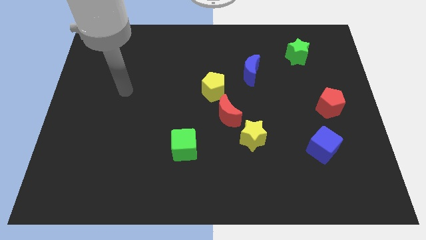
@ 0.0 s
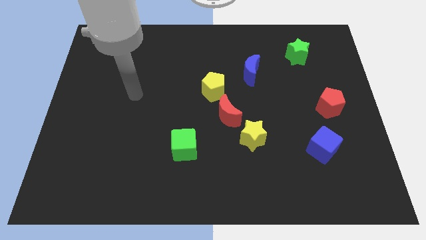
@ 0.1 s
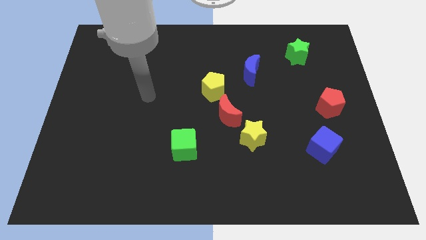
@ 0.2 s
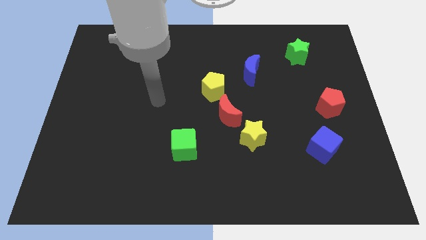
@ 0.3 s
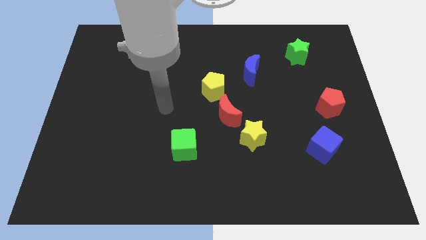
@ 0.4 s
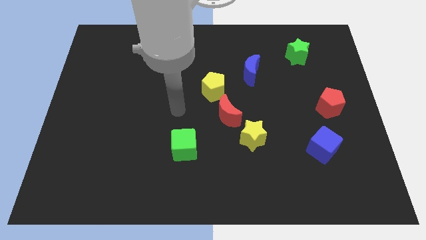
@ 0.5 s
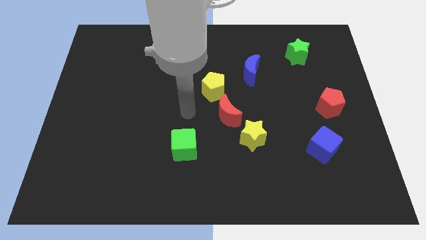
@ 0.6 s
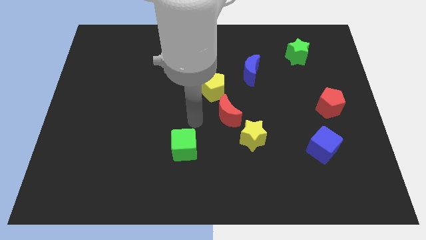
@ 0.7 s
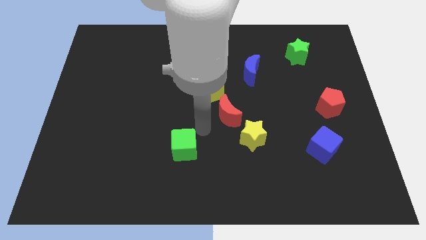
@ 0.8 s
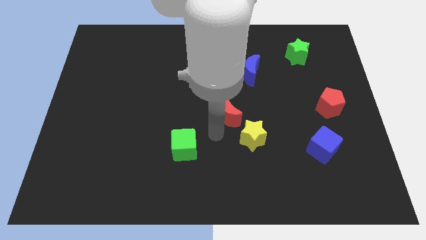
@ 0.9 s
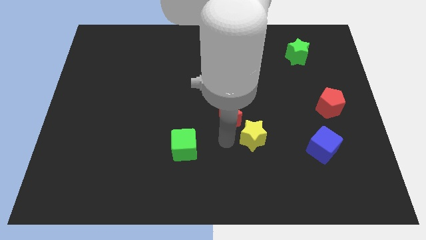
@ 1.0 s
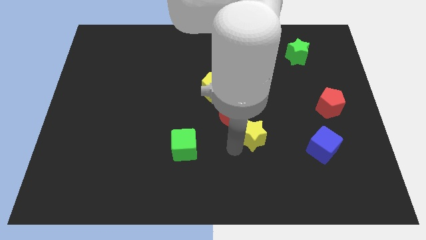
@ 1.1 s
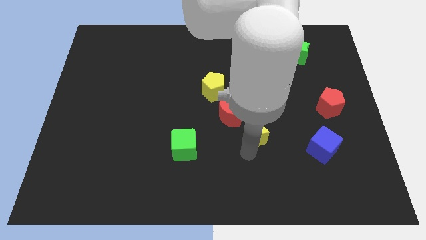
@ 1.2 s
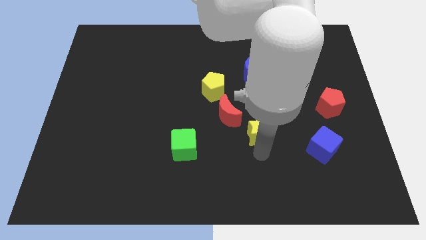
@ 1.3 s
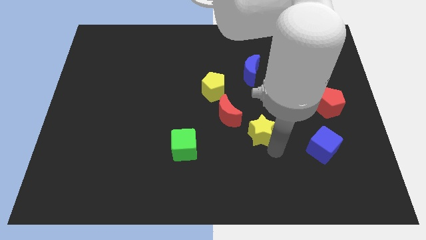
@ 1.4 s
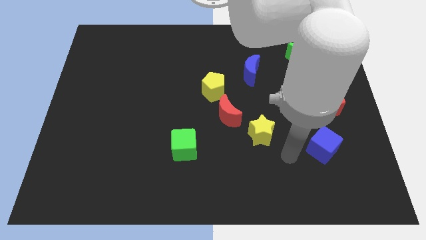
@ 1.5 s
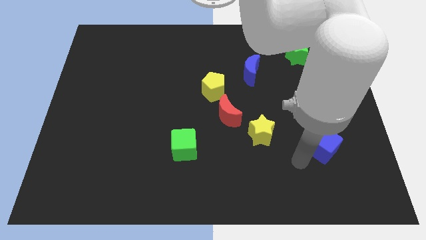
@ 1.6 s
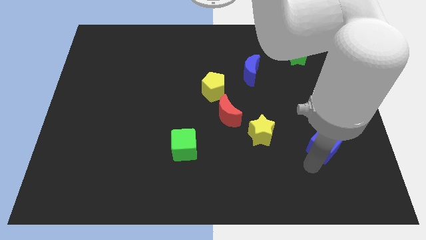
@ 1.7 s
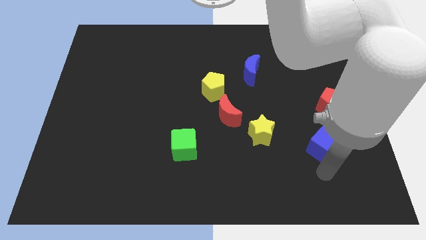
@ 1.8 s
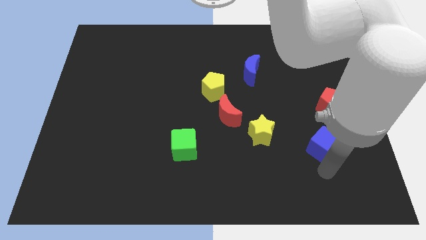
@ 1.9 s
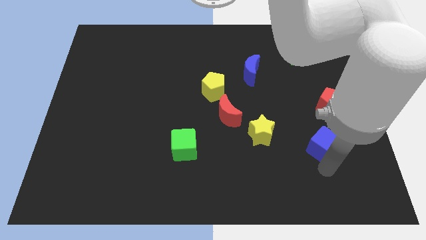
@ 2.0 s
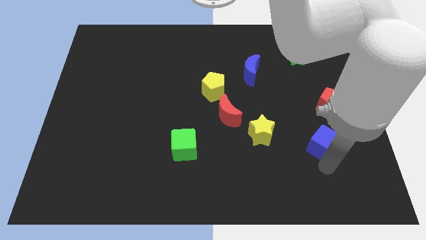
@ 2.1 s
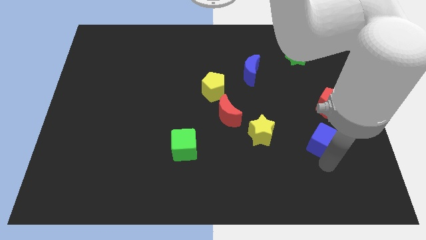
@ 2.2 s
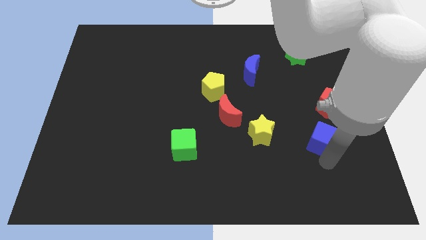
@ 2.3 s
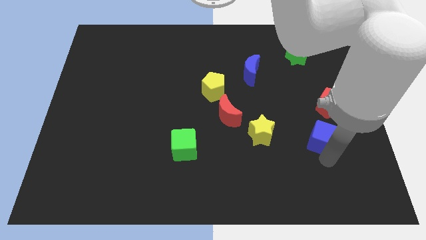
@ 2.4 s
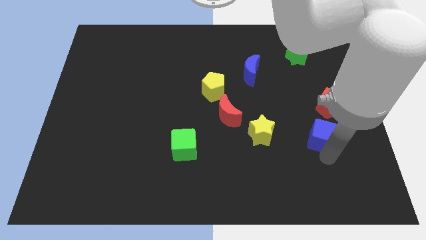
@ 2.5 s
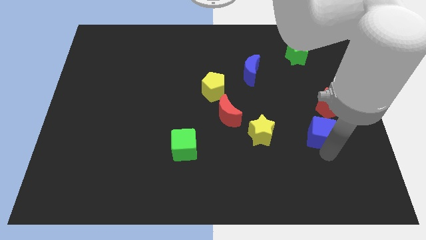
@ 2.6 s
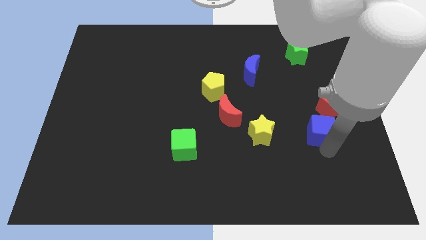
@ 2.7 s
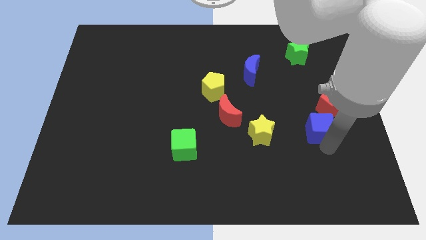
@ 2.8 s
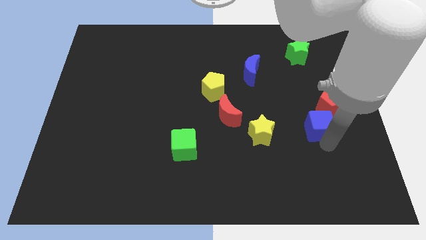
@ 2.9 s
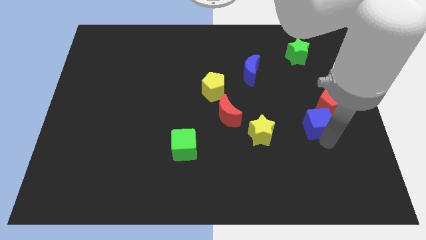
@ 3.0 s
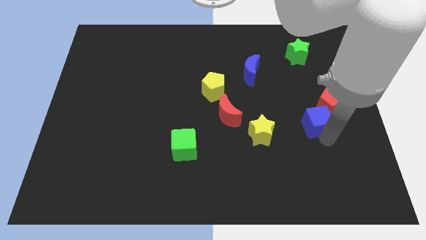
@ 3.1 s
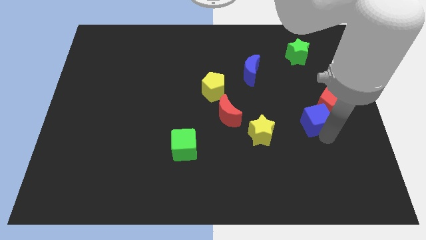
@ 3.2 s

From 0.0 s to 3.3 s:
push the blue cube a bit up

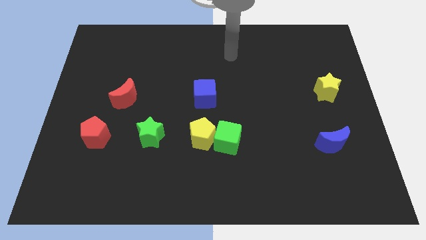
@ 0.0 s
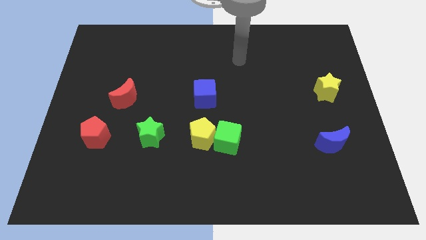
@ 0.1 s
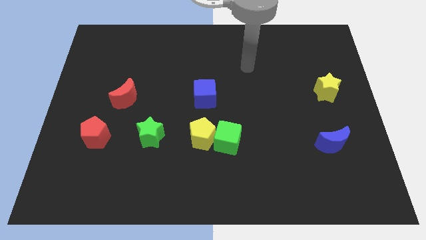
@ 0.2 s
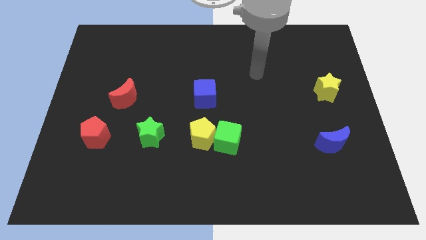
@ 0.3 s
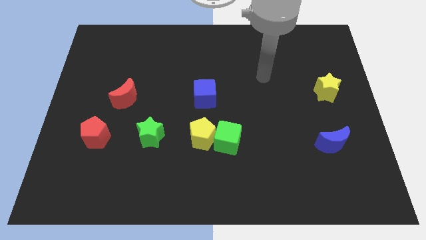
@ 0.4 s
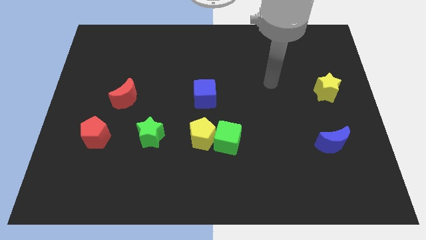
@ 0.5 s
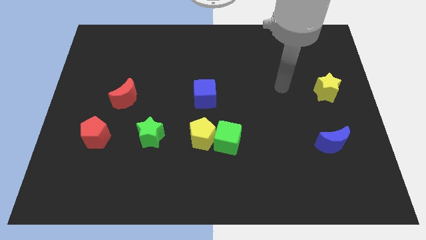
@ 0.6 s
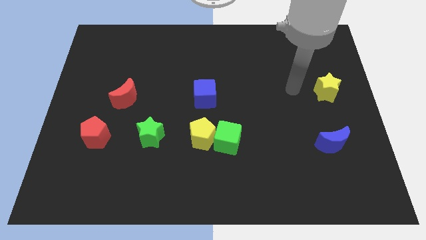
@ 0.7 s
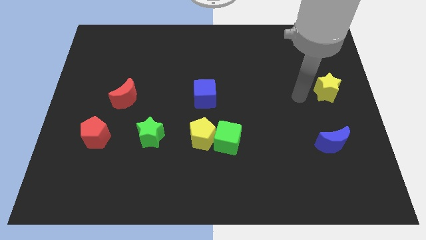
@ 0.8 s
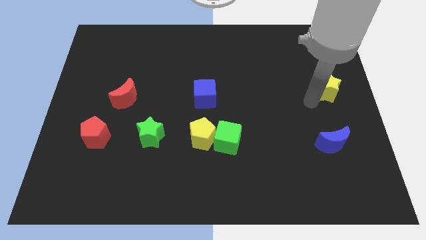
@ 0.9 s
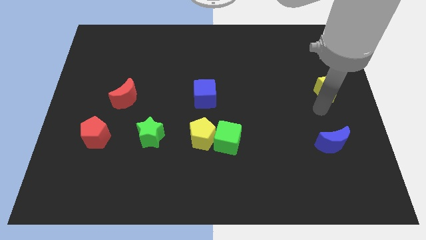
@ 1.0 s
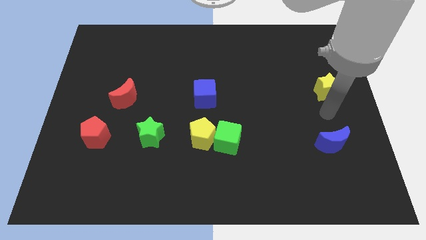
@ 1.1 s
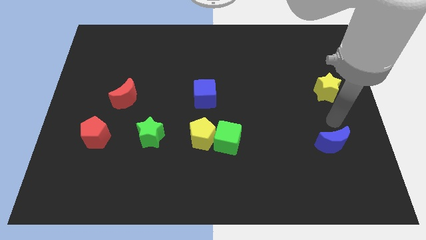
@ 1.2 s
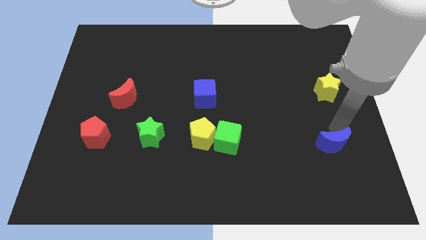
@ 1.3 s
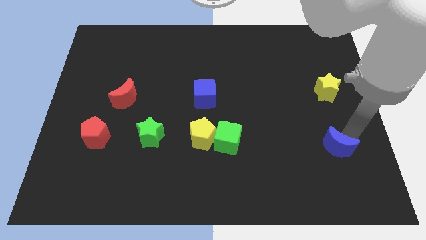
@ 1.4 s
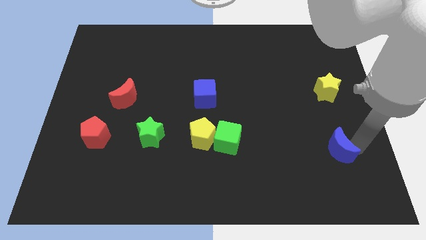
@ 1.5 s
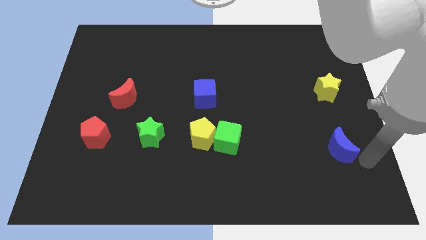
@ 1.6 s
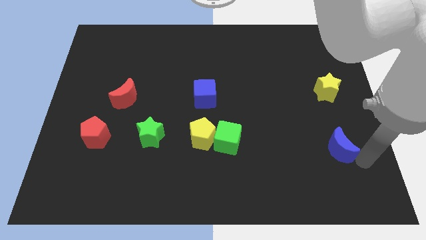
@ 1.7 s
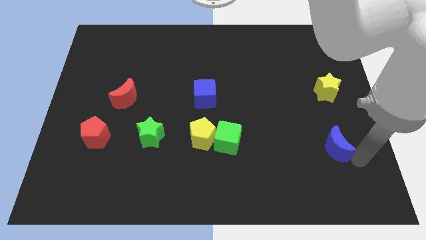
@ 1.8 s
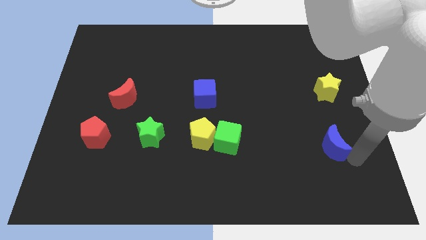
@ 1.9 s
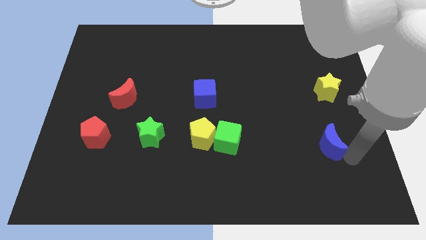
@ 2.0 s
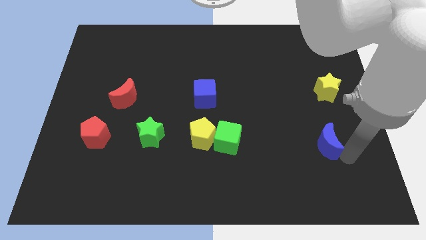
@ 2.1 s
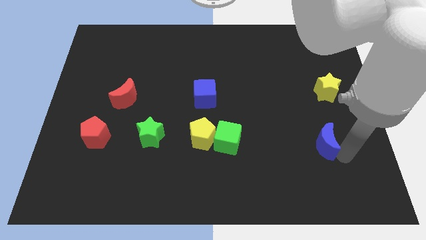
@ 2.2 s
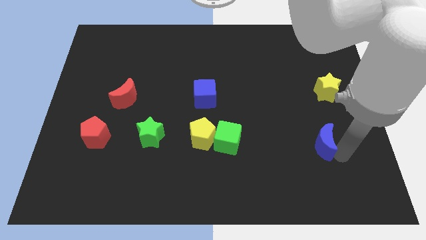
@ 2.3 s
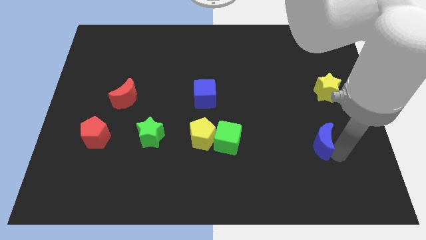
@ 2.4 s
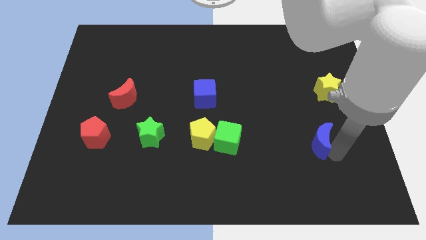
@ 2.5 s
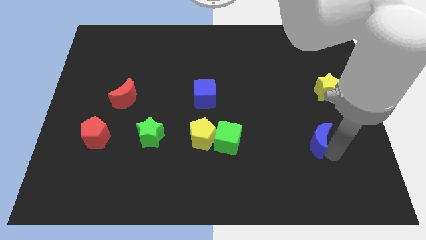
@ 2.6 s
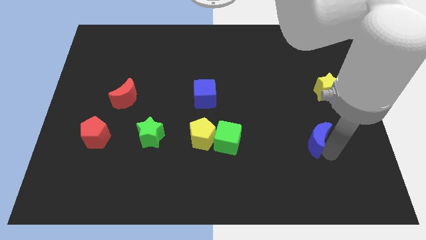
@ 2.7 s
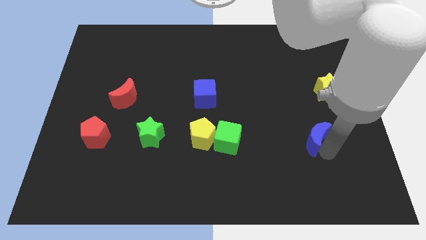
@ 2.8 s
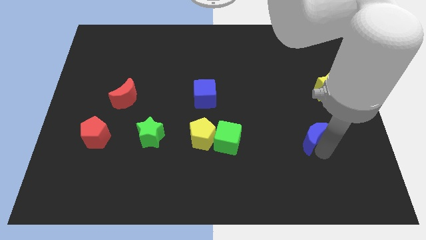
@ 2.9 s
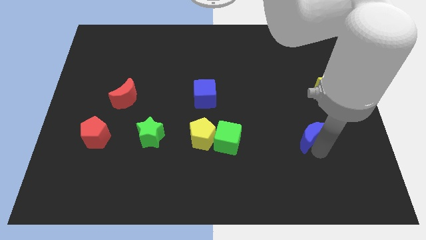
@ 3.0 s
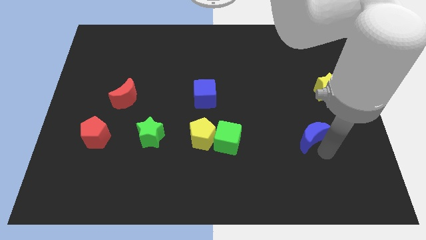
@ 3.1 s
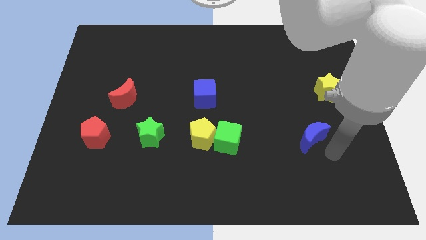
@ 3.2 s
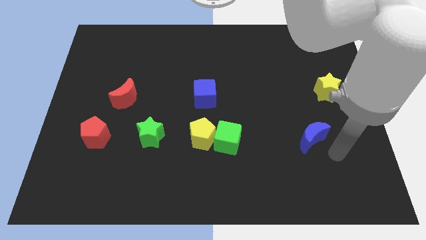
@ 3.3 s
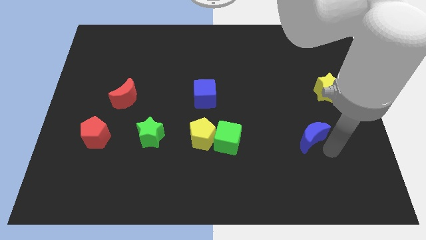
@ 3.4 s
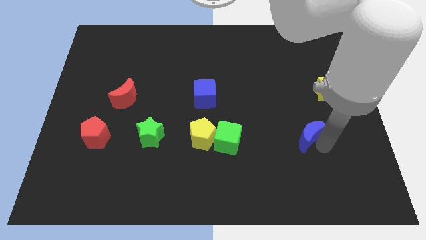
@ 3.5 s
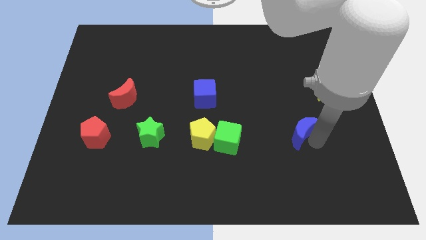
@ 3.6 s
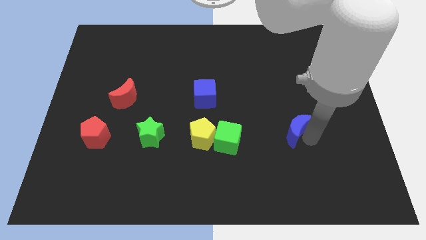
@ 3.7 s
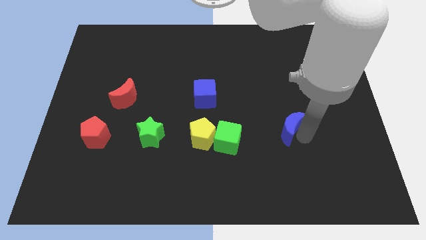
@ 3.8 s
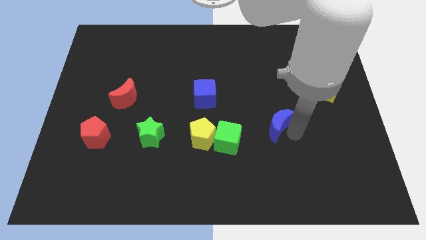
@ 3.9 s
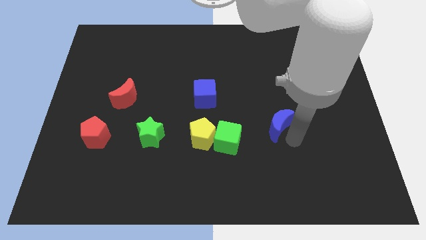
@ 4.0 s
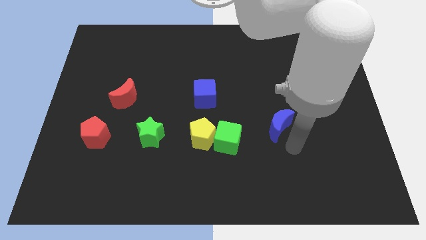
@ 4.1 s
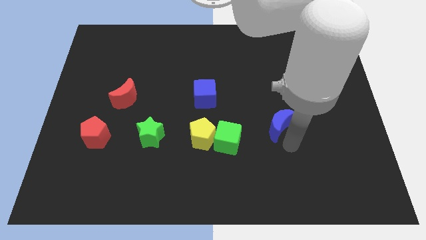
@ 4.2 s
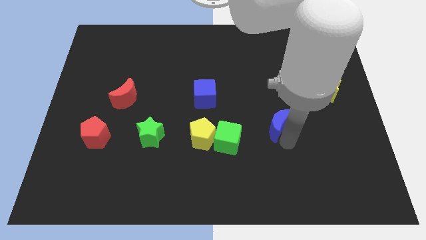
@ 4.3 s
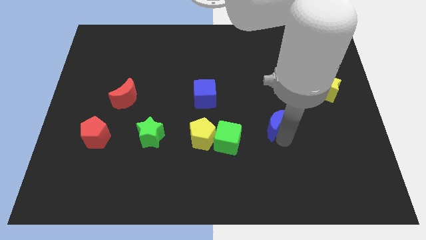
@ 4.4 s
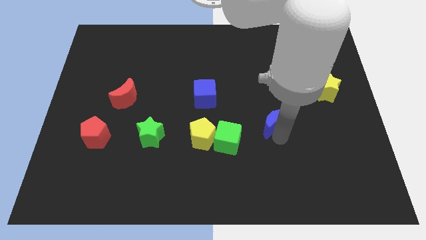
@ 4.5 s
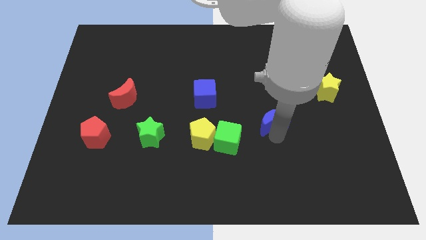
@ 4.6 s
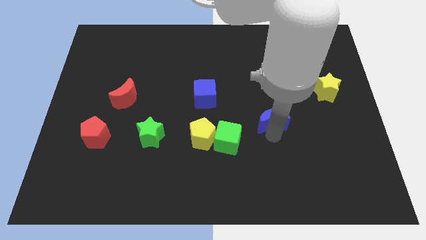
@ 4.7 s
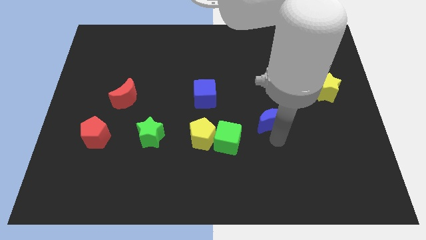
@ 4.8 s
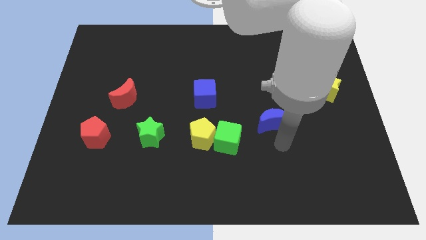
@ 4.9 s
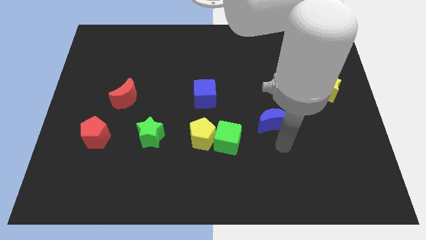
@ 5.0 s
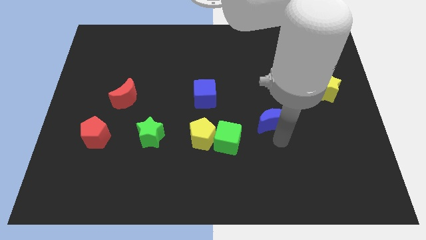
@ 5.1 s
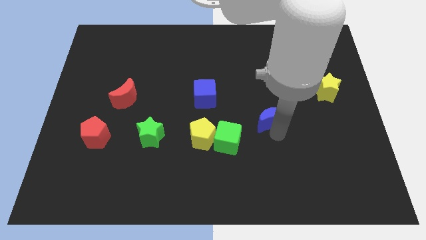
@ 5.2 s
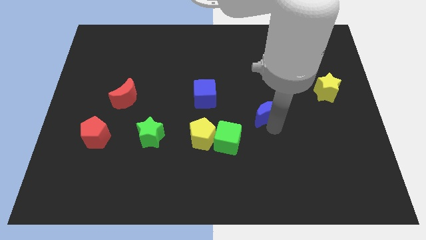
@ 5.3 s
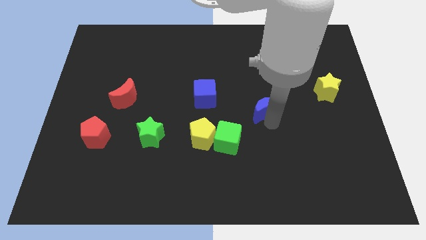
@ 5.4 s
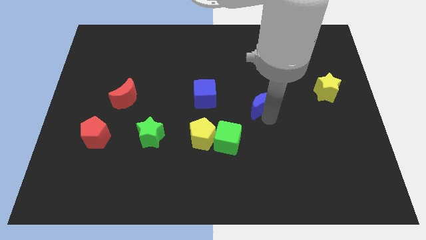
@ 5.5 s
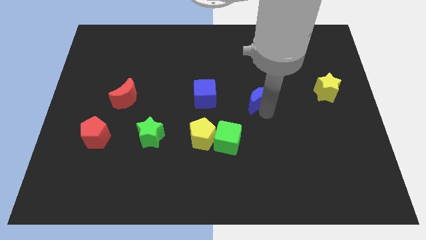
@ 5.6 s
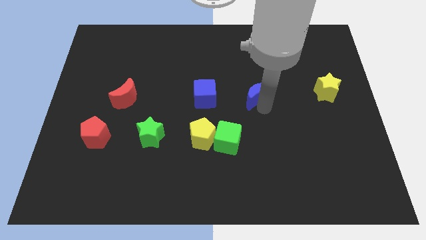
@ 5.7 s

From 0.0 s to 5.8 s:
push the blue moon up and to the left
